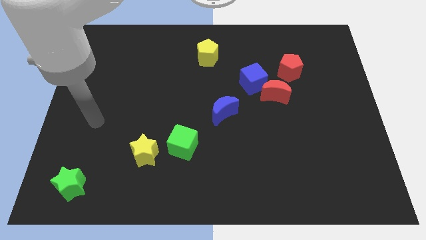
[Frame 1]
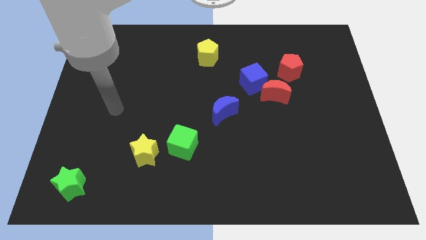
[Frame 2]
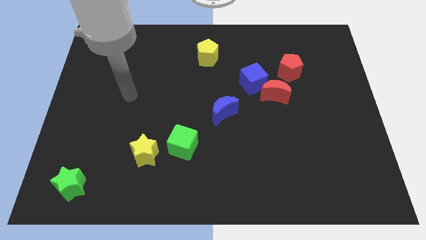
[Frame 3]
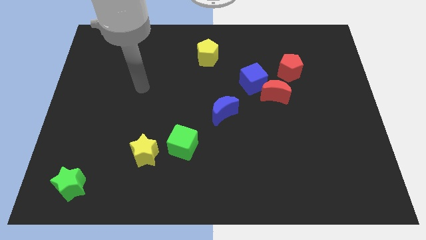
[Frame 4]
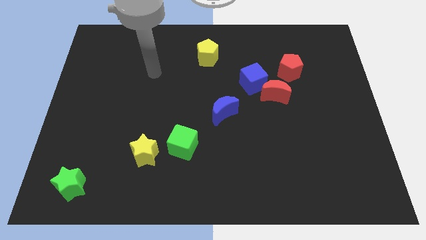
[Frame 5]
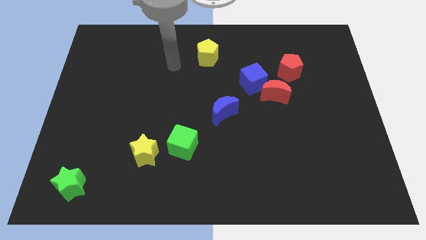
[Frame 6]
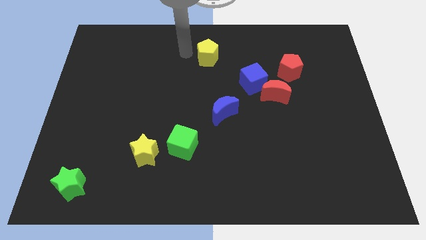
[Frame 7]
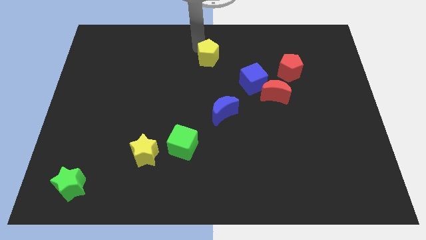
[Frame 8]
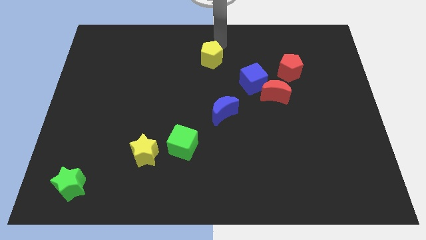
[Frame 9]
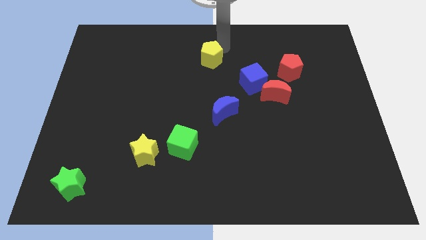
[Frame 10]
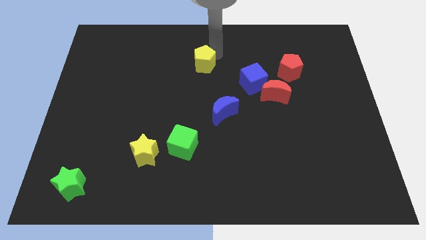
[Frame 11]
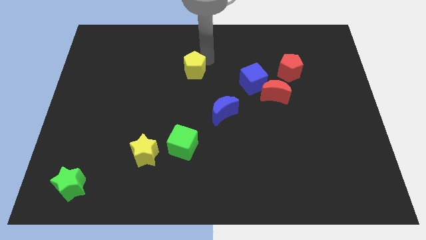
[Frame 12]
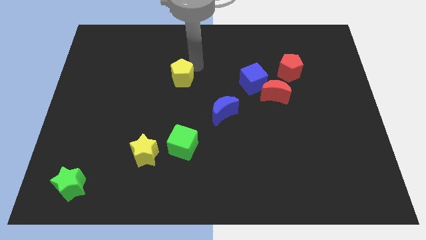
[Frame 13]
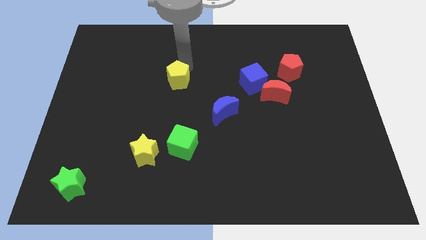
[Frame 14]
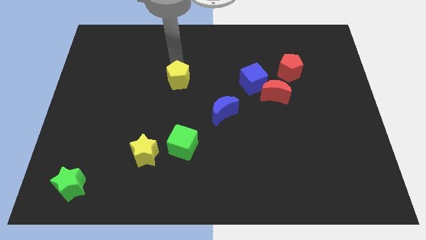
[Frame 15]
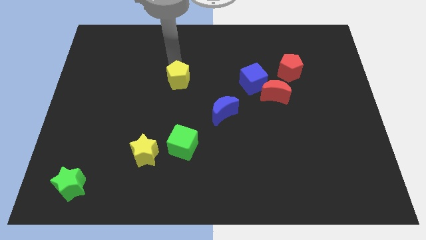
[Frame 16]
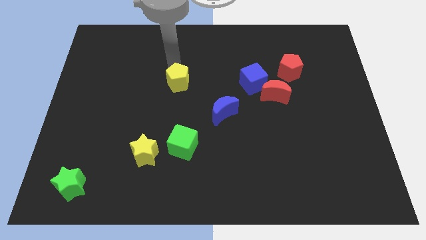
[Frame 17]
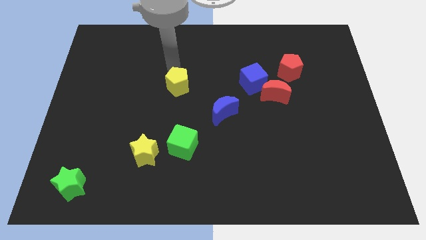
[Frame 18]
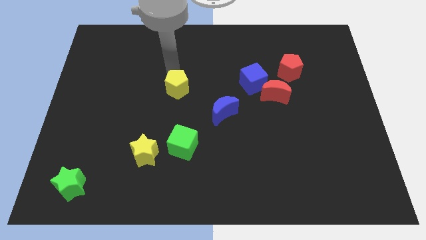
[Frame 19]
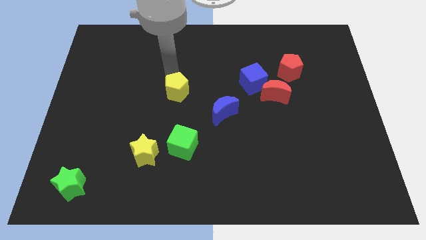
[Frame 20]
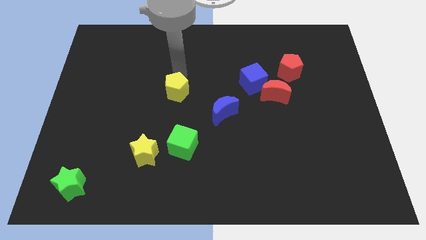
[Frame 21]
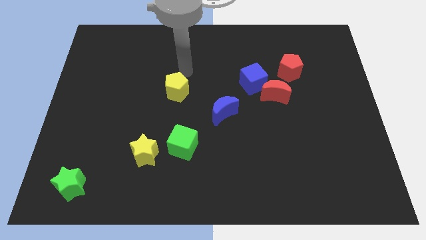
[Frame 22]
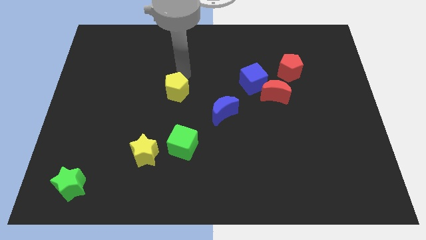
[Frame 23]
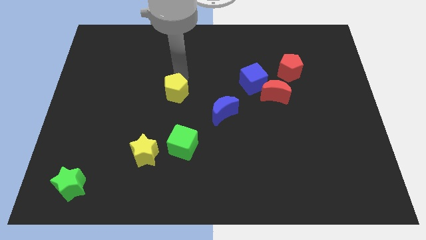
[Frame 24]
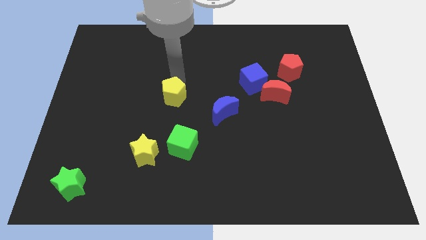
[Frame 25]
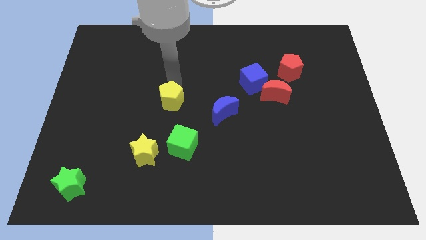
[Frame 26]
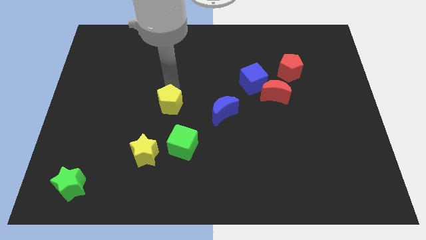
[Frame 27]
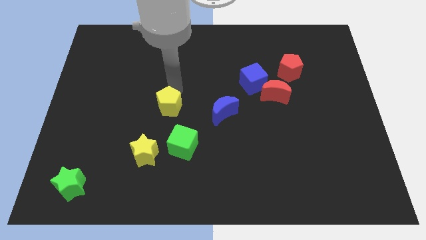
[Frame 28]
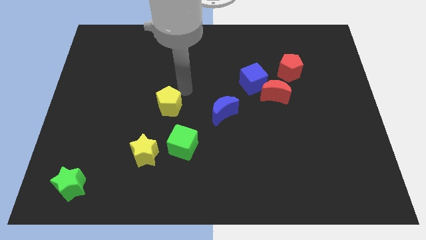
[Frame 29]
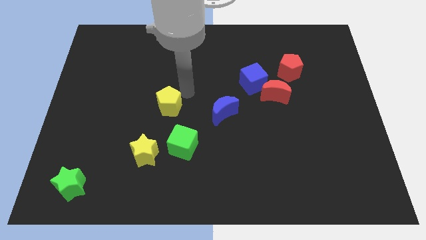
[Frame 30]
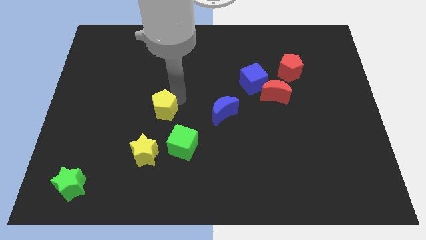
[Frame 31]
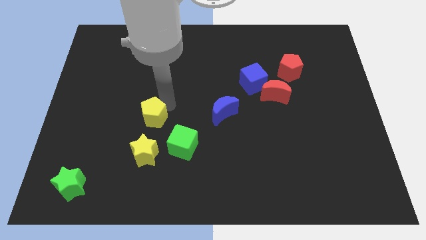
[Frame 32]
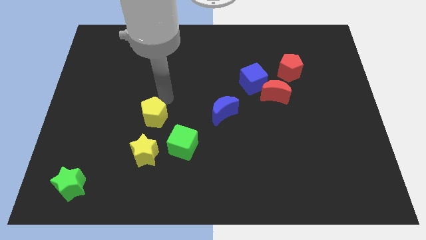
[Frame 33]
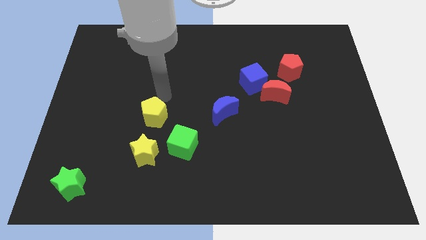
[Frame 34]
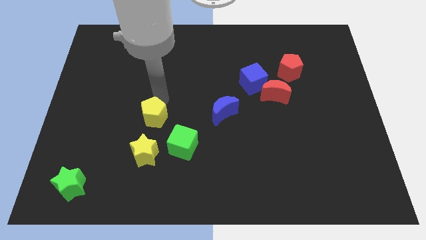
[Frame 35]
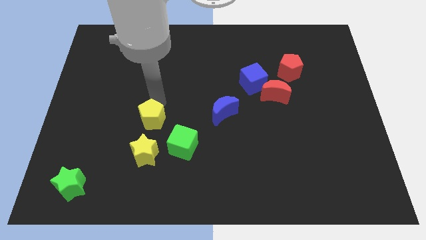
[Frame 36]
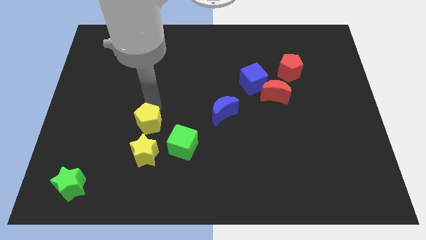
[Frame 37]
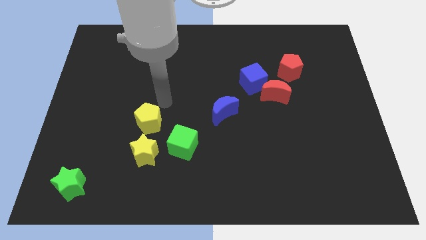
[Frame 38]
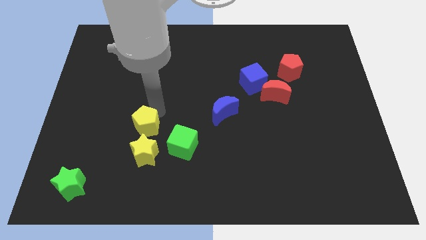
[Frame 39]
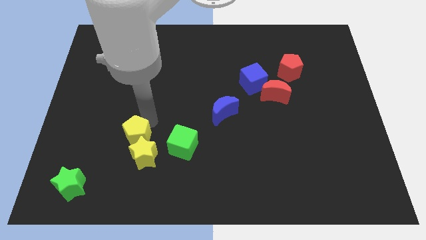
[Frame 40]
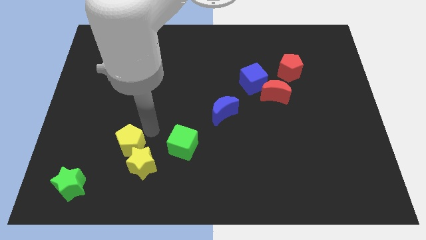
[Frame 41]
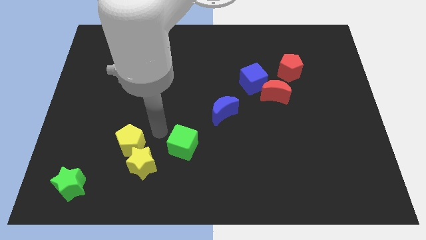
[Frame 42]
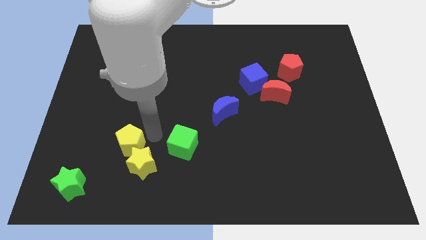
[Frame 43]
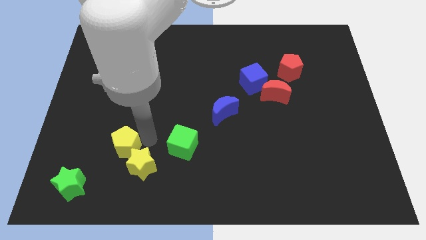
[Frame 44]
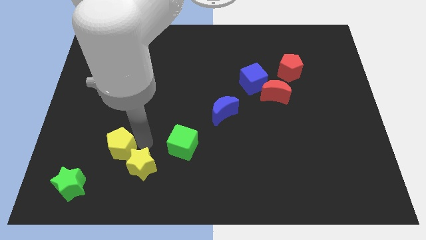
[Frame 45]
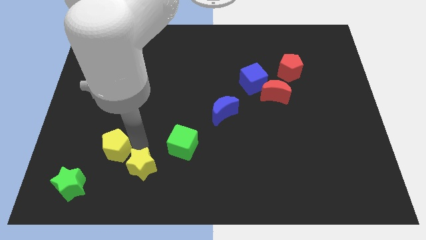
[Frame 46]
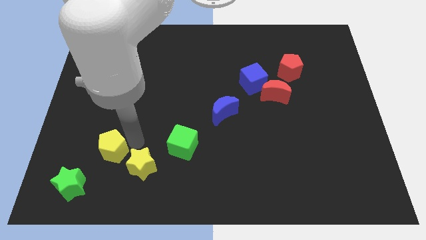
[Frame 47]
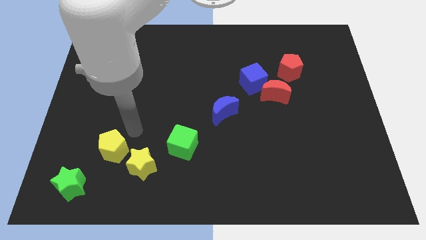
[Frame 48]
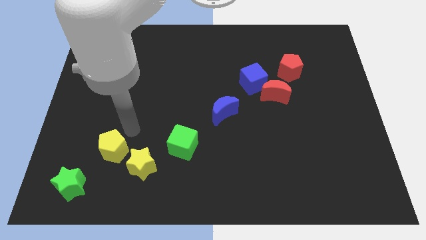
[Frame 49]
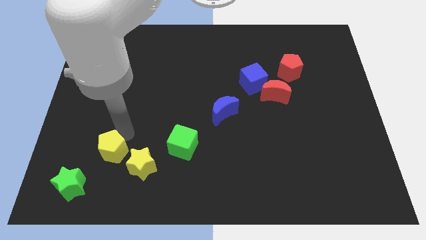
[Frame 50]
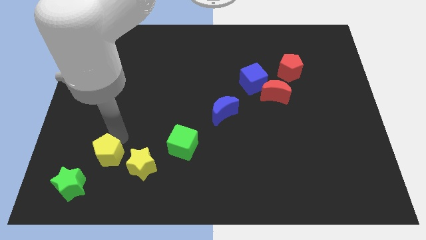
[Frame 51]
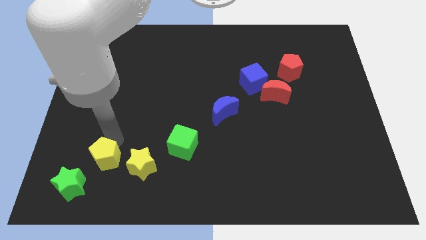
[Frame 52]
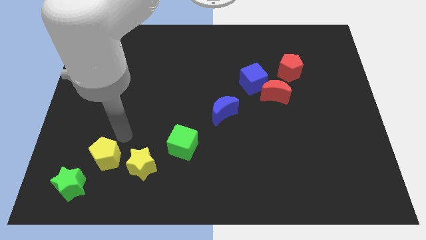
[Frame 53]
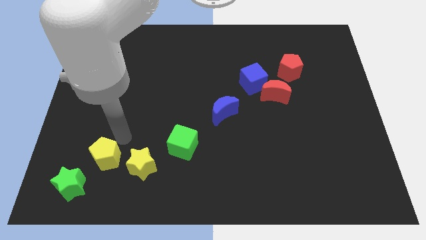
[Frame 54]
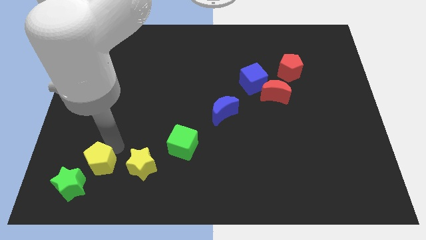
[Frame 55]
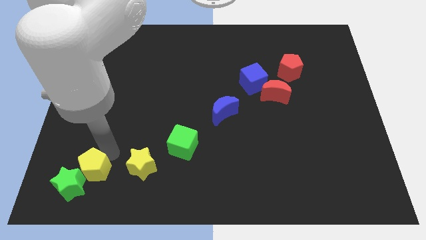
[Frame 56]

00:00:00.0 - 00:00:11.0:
move the yellow pentagon to the green star

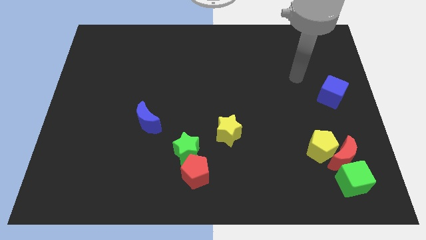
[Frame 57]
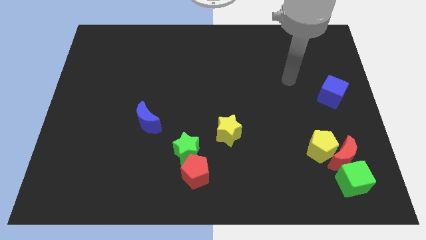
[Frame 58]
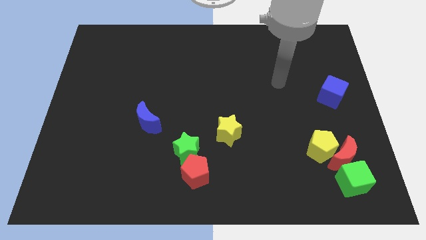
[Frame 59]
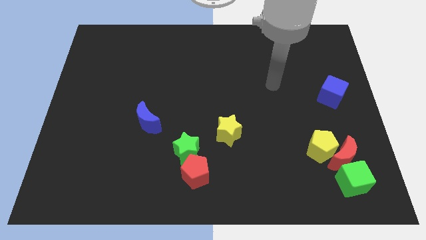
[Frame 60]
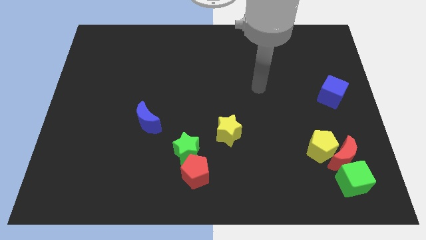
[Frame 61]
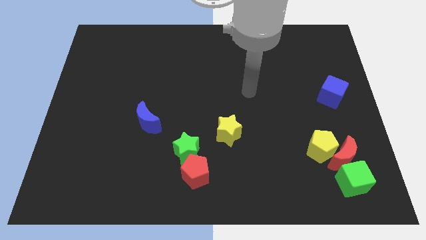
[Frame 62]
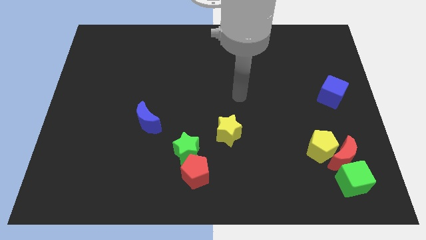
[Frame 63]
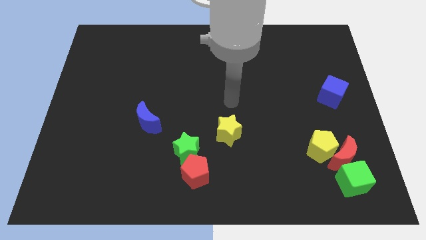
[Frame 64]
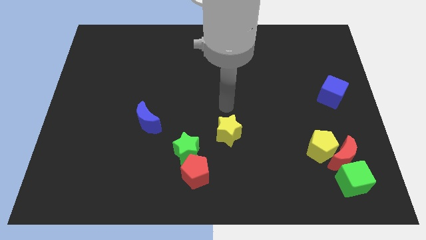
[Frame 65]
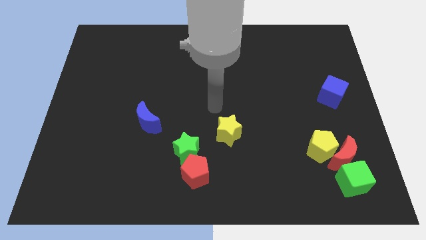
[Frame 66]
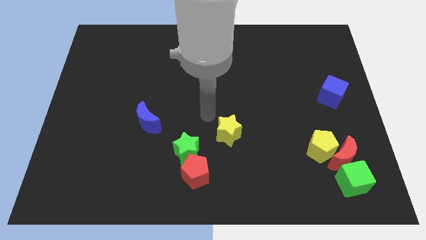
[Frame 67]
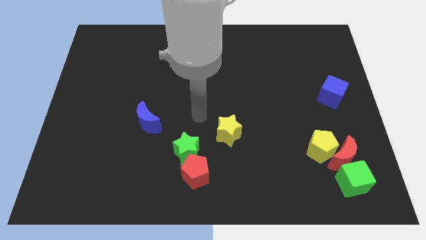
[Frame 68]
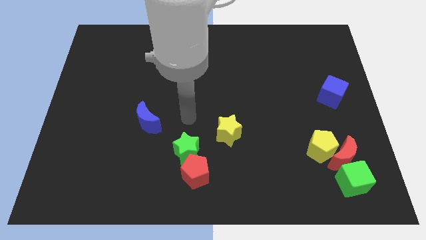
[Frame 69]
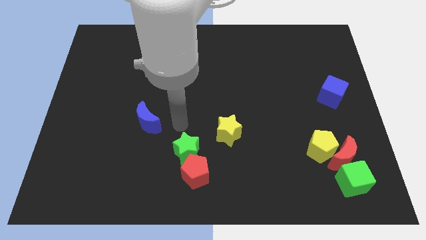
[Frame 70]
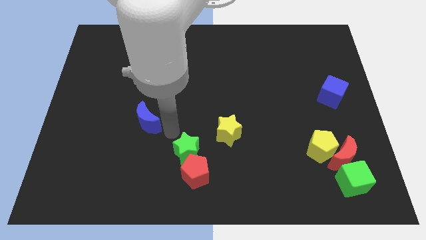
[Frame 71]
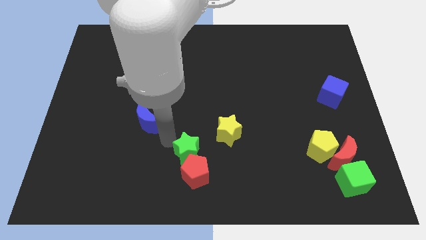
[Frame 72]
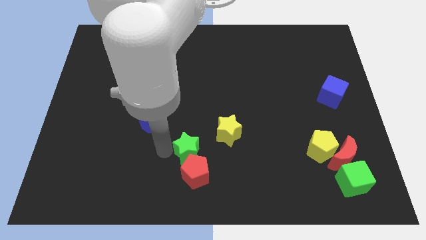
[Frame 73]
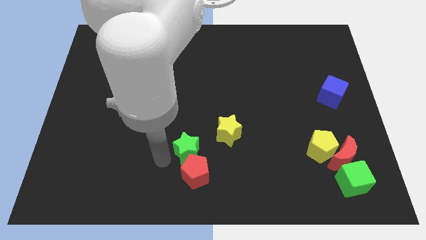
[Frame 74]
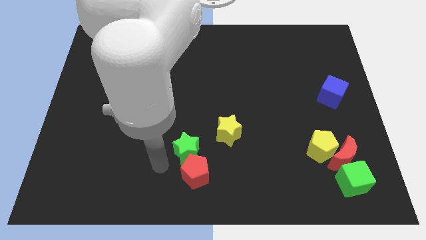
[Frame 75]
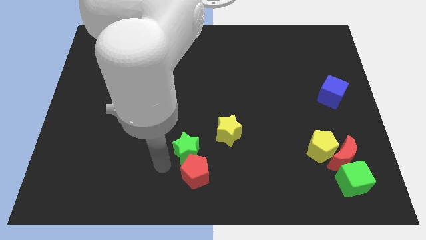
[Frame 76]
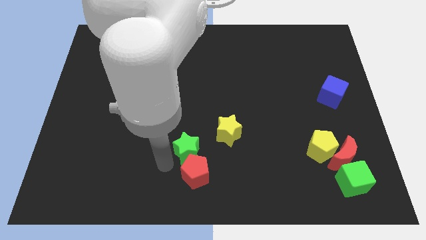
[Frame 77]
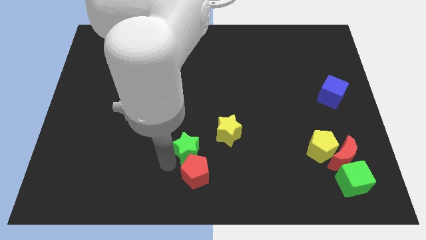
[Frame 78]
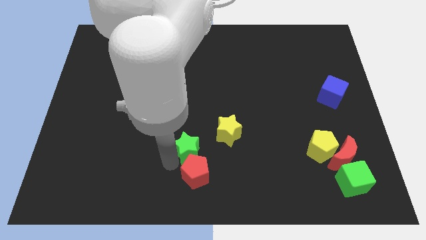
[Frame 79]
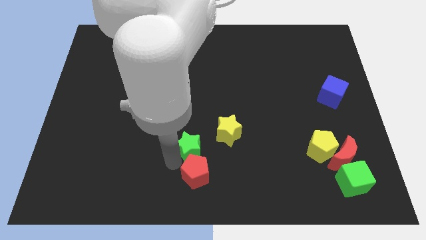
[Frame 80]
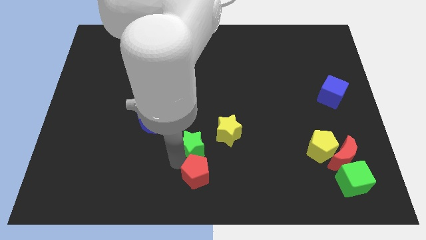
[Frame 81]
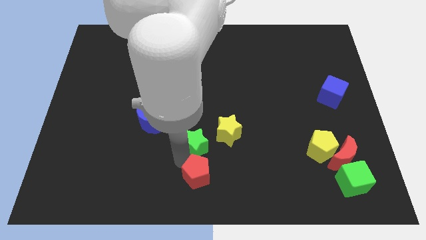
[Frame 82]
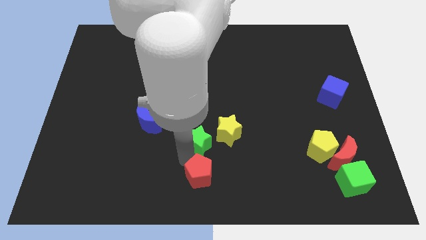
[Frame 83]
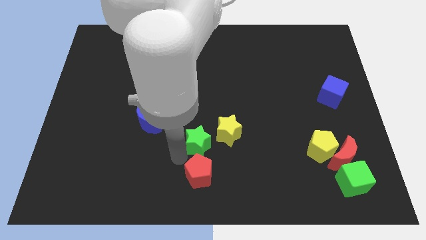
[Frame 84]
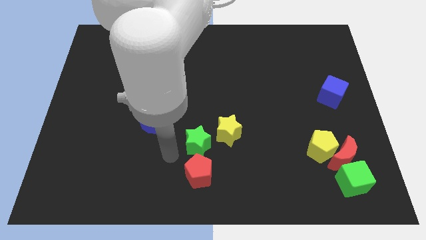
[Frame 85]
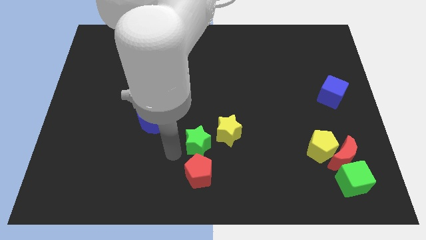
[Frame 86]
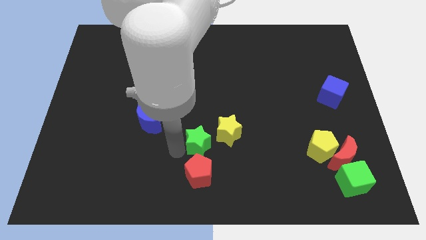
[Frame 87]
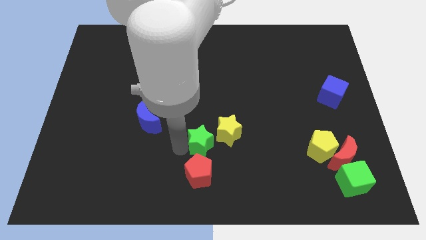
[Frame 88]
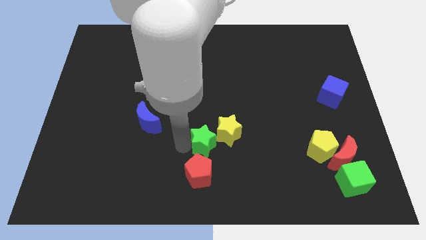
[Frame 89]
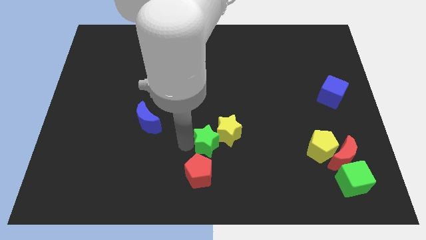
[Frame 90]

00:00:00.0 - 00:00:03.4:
put the green star next to the yellow star
